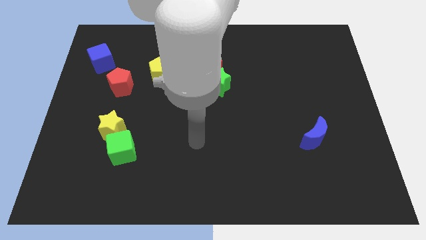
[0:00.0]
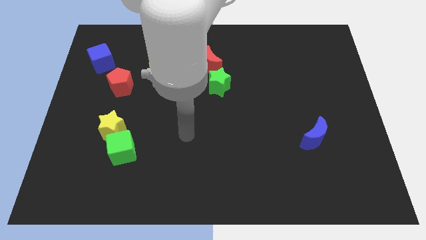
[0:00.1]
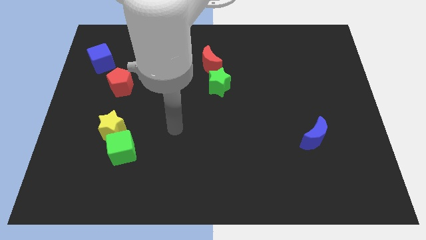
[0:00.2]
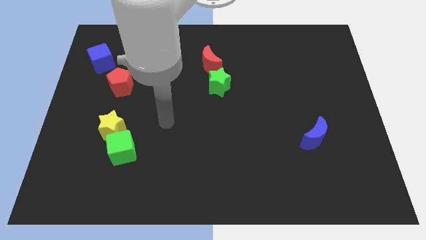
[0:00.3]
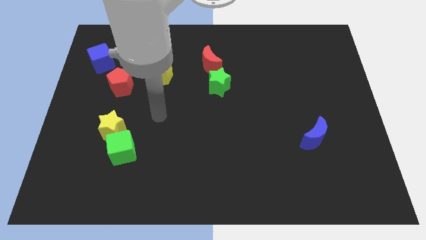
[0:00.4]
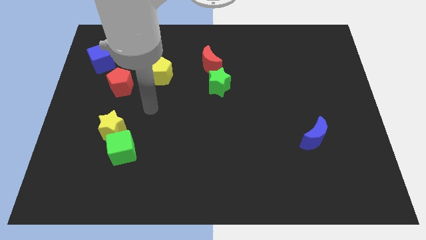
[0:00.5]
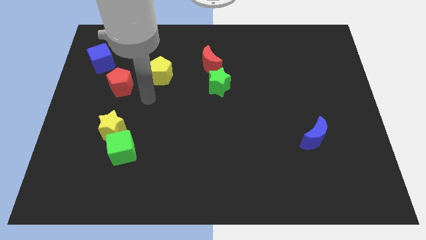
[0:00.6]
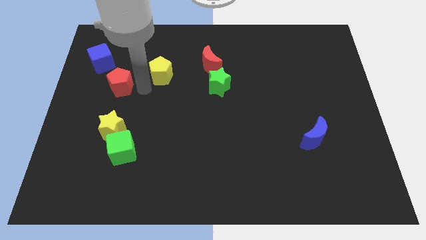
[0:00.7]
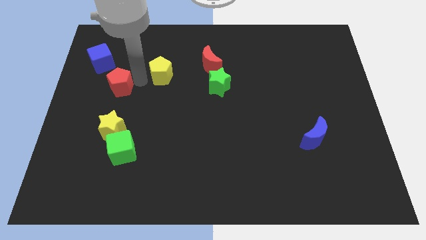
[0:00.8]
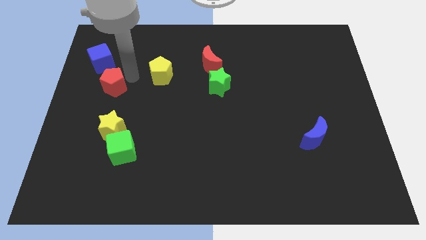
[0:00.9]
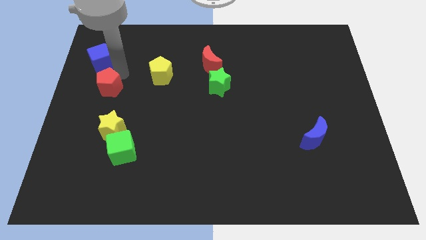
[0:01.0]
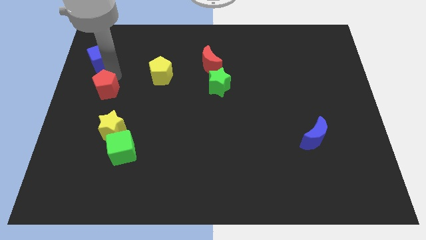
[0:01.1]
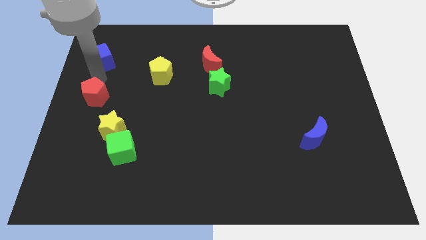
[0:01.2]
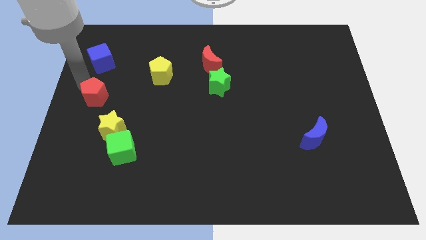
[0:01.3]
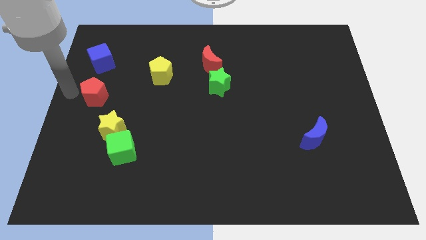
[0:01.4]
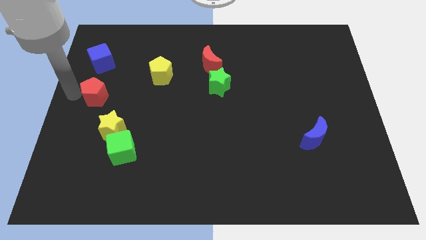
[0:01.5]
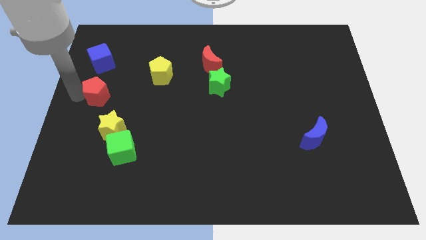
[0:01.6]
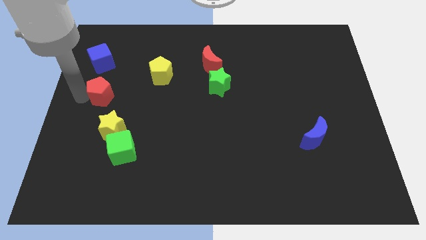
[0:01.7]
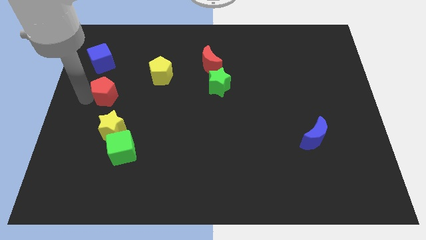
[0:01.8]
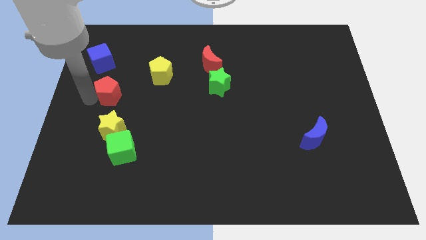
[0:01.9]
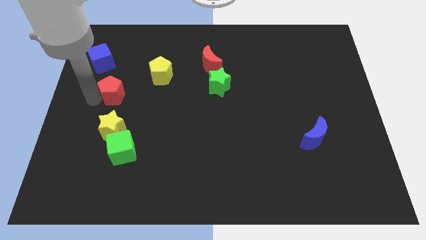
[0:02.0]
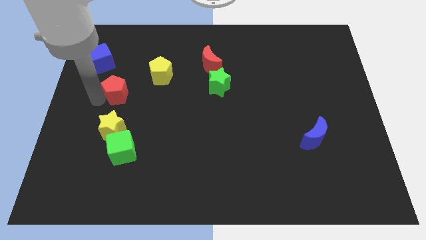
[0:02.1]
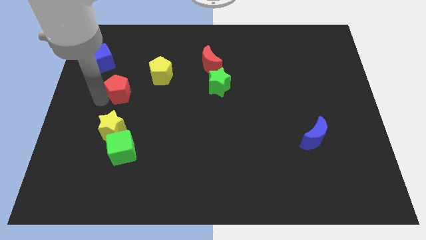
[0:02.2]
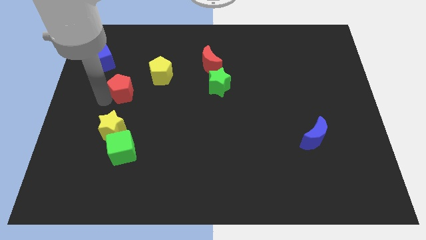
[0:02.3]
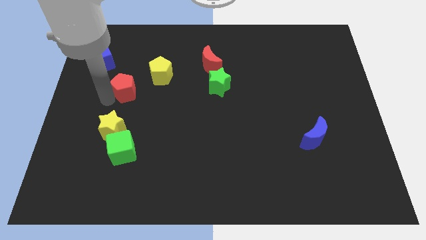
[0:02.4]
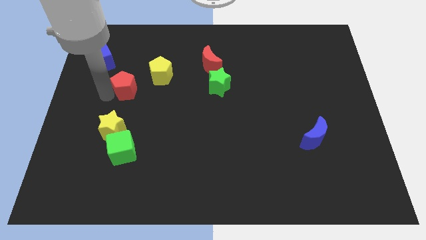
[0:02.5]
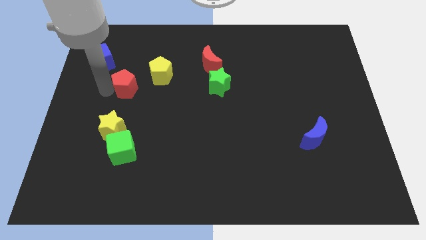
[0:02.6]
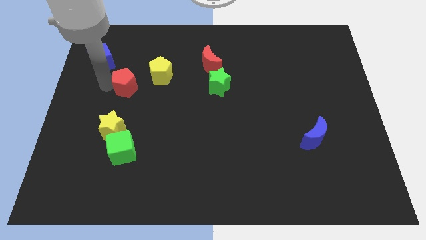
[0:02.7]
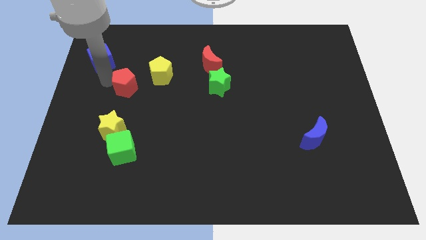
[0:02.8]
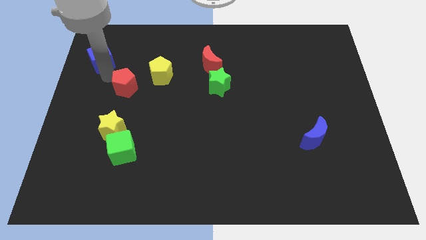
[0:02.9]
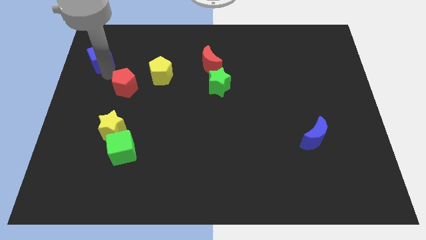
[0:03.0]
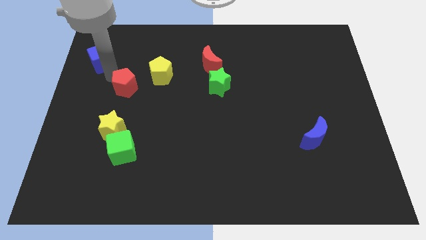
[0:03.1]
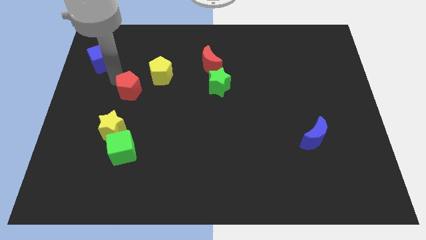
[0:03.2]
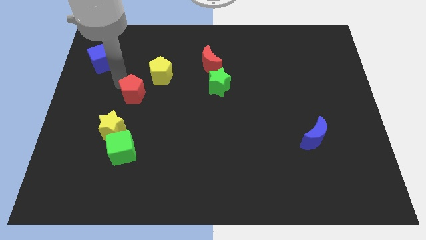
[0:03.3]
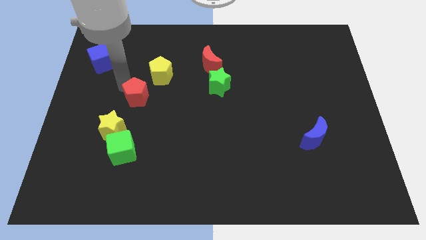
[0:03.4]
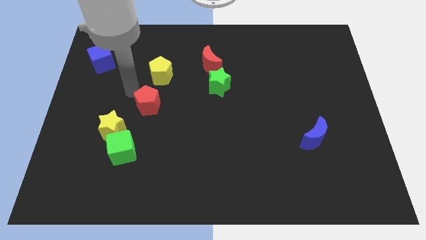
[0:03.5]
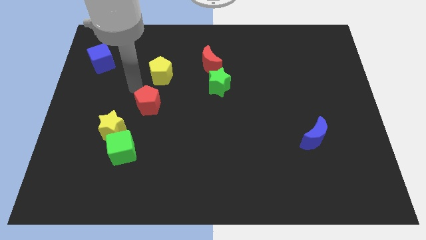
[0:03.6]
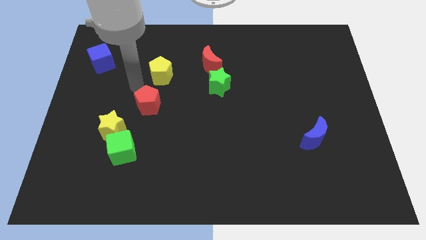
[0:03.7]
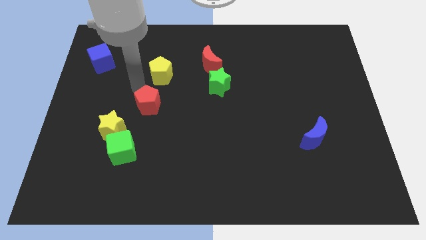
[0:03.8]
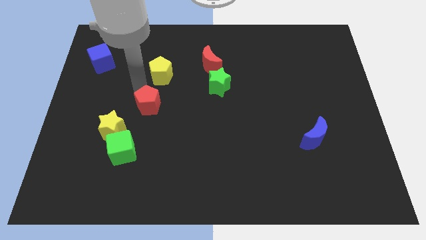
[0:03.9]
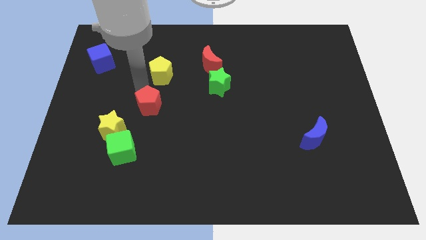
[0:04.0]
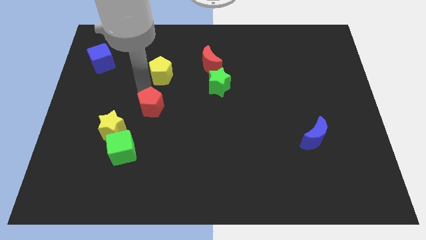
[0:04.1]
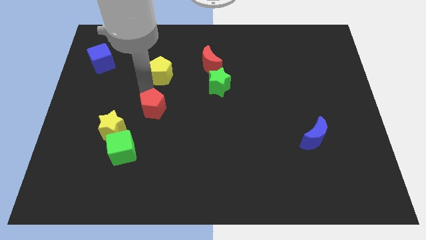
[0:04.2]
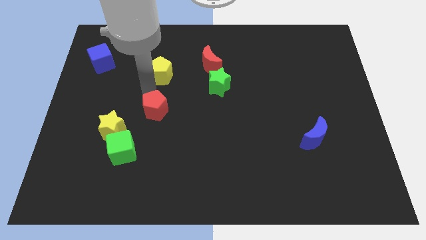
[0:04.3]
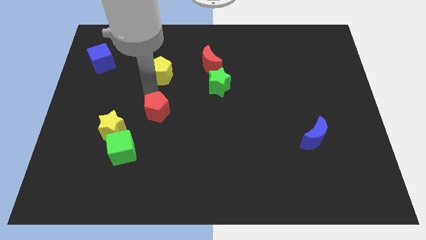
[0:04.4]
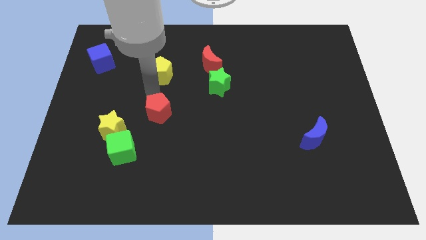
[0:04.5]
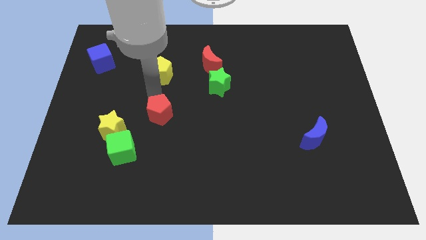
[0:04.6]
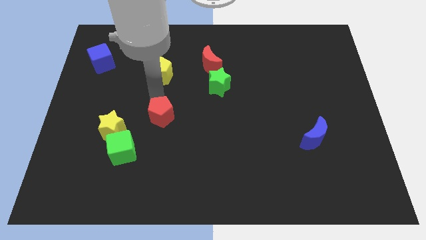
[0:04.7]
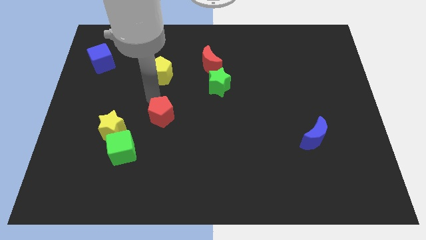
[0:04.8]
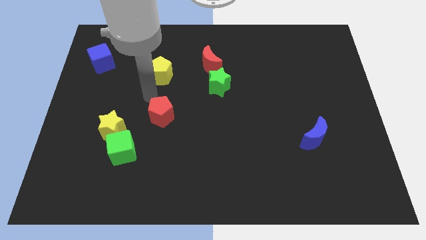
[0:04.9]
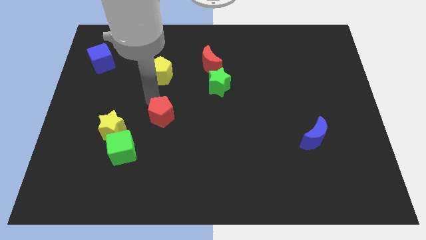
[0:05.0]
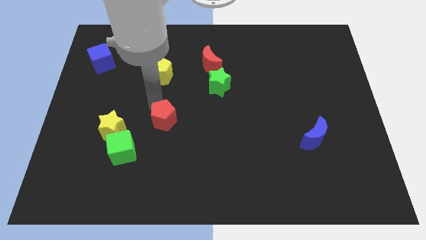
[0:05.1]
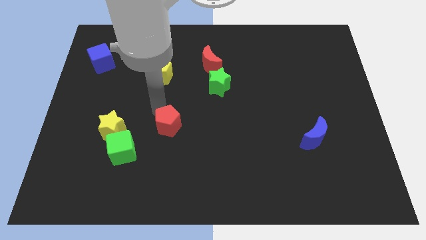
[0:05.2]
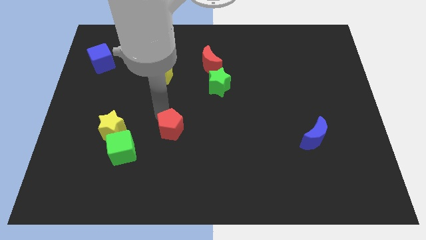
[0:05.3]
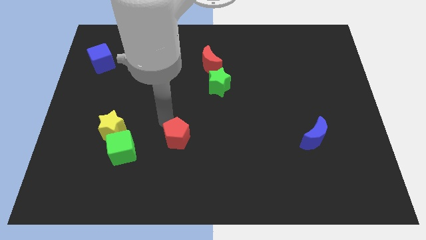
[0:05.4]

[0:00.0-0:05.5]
push the red pentagon downwards and then right

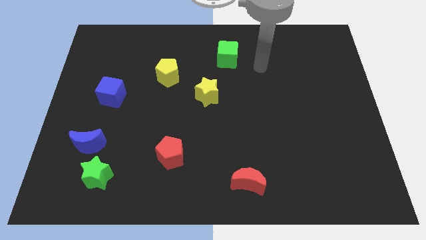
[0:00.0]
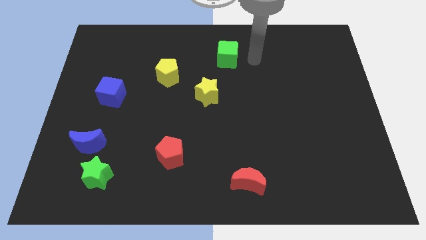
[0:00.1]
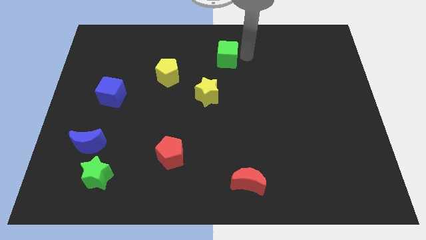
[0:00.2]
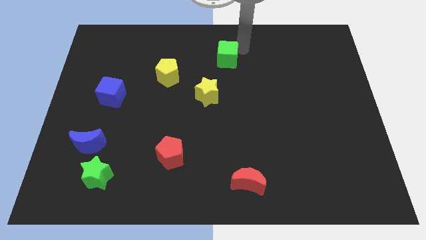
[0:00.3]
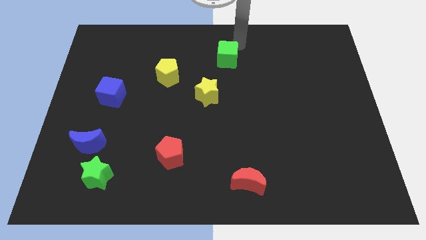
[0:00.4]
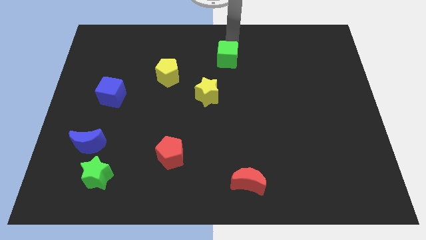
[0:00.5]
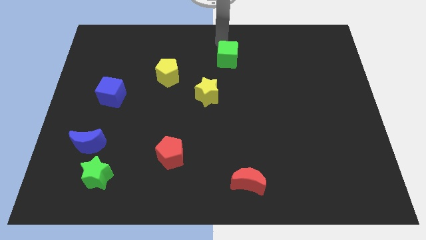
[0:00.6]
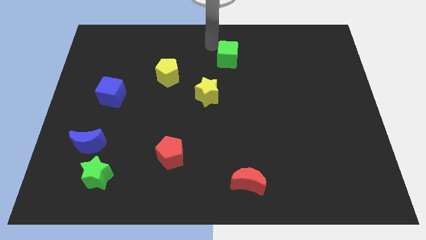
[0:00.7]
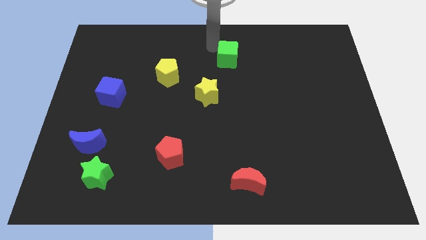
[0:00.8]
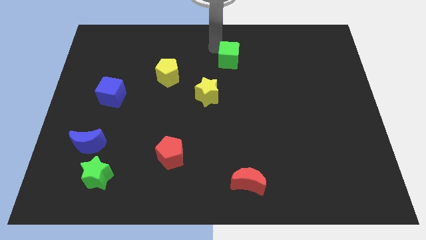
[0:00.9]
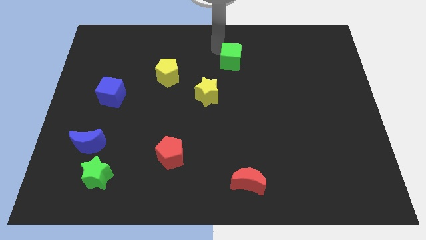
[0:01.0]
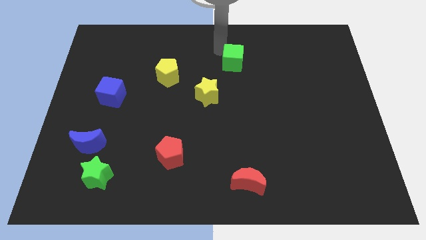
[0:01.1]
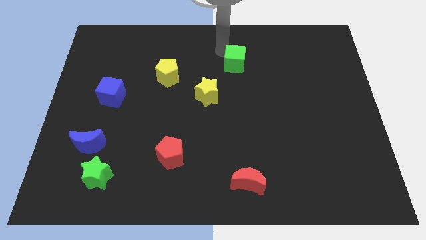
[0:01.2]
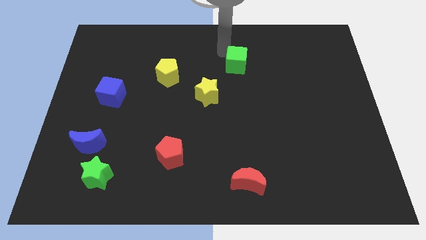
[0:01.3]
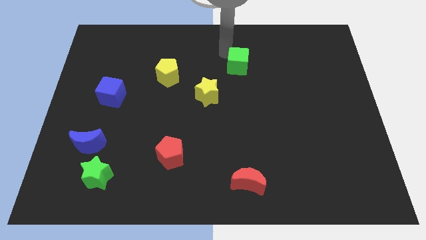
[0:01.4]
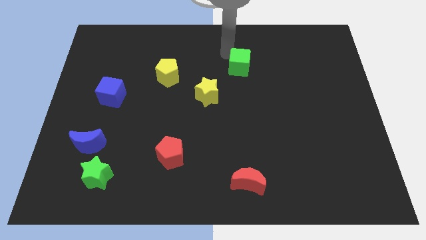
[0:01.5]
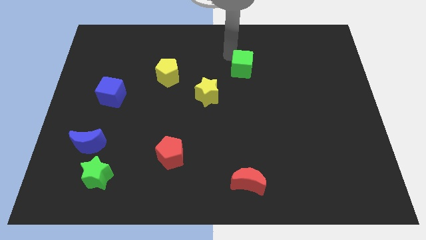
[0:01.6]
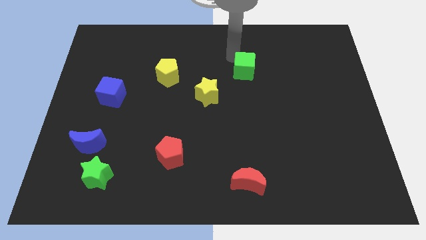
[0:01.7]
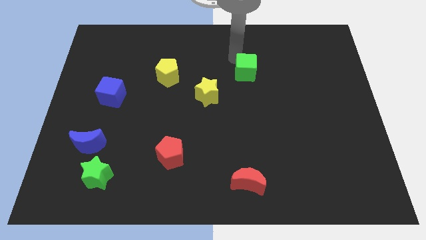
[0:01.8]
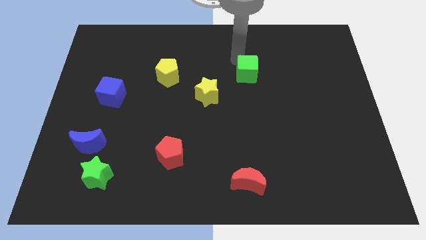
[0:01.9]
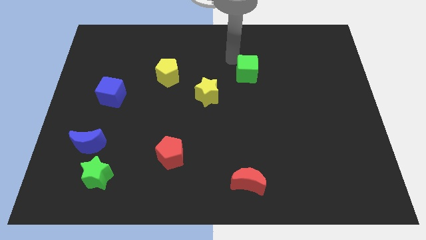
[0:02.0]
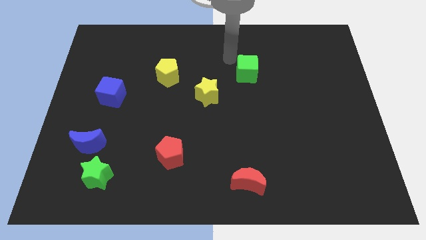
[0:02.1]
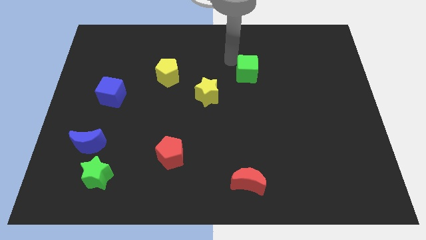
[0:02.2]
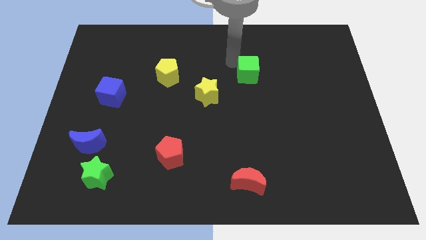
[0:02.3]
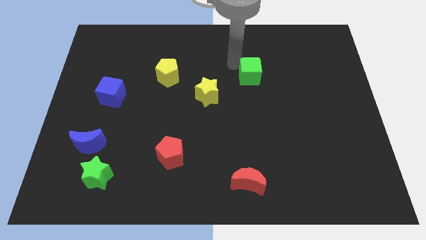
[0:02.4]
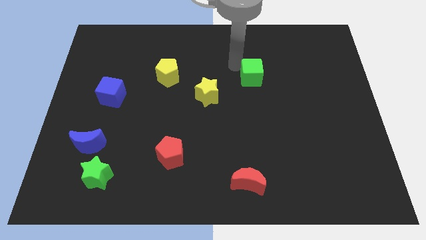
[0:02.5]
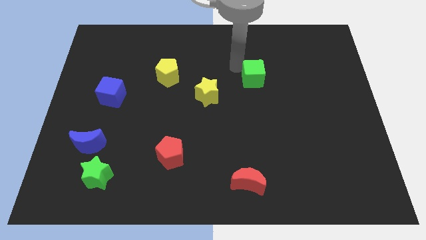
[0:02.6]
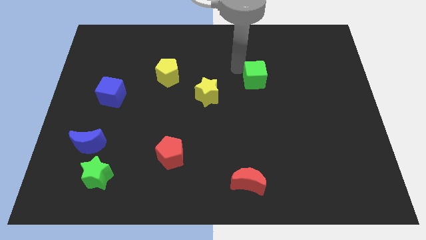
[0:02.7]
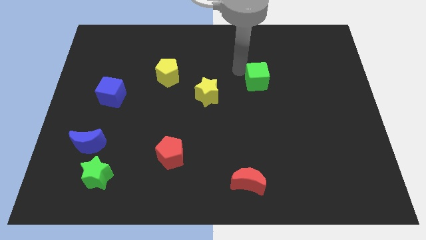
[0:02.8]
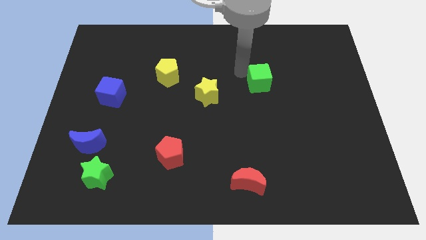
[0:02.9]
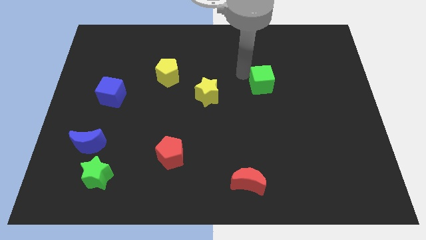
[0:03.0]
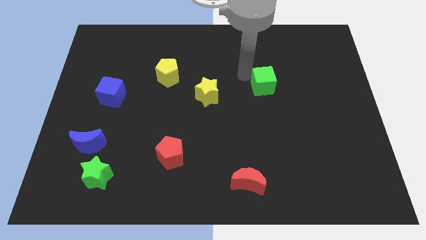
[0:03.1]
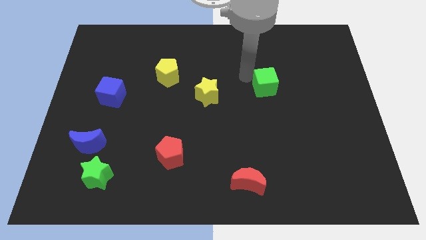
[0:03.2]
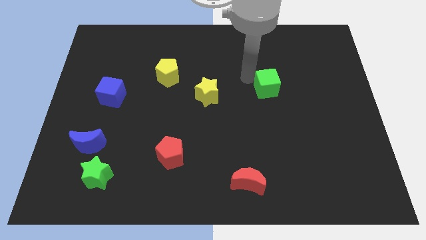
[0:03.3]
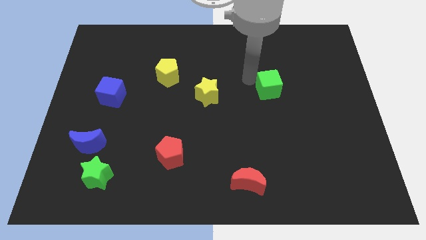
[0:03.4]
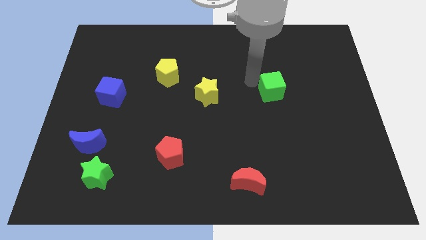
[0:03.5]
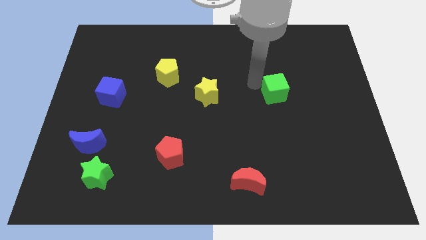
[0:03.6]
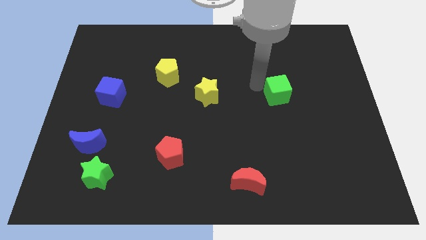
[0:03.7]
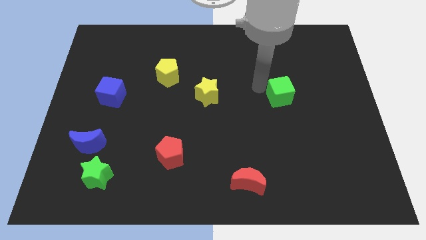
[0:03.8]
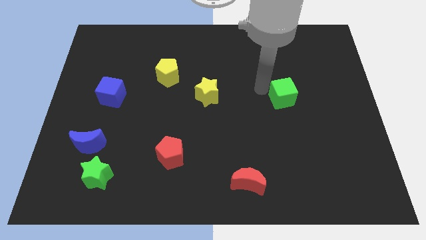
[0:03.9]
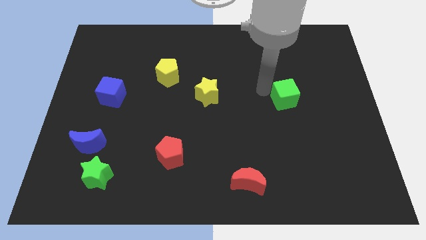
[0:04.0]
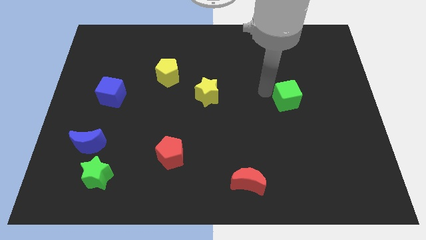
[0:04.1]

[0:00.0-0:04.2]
move the green cube down and to the right
